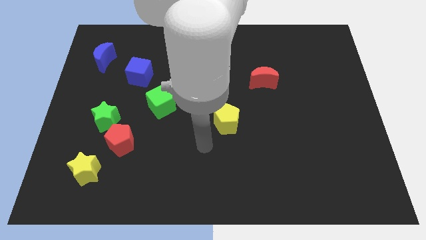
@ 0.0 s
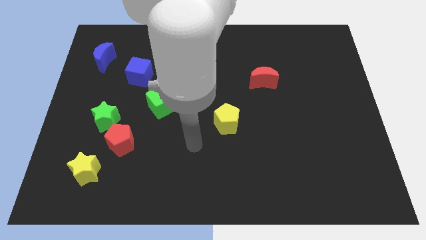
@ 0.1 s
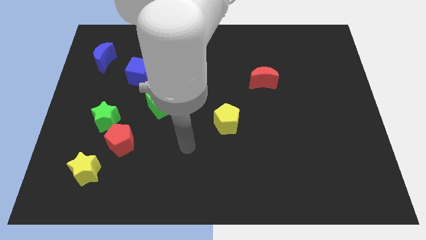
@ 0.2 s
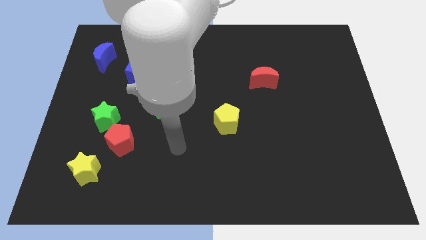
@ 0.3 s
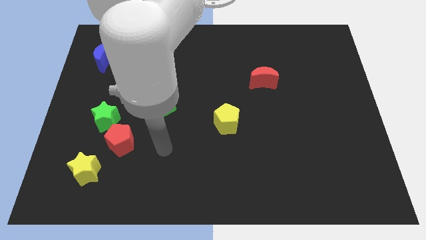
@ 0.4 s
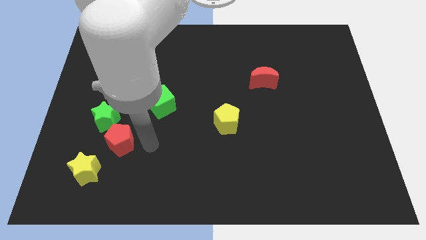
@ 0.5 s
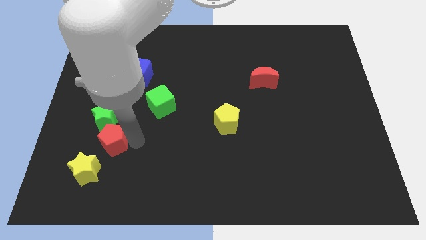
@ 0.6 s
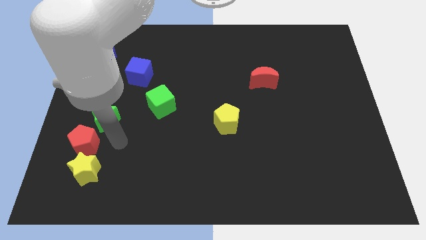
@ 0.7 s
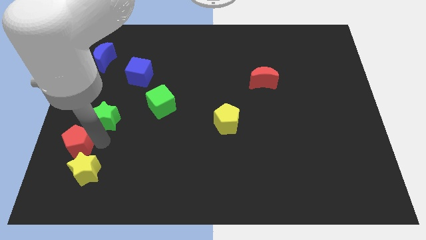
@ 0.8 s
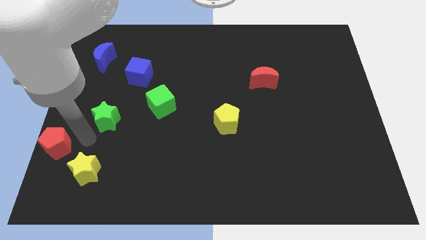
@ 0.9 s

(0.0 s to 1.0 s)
separate the green star from the red pentagon

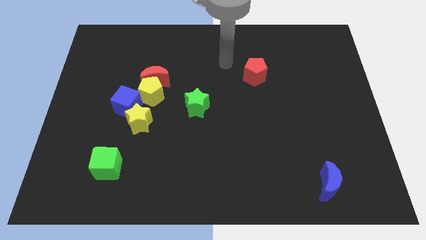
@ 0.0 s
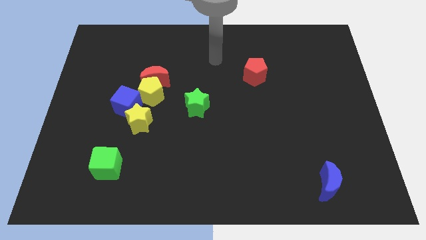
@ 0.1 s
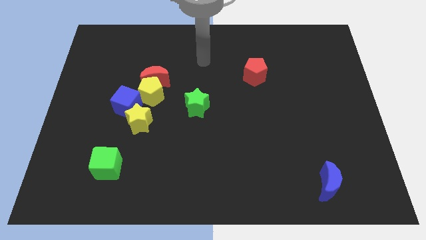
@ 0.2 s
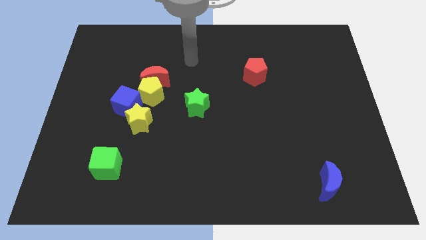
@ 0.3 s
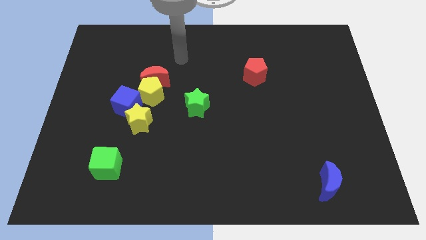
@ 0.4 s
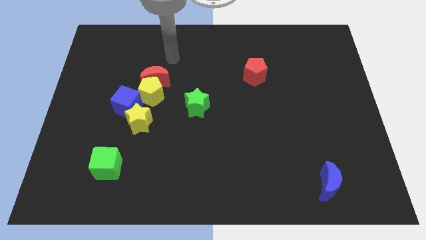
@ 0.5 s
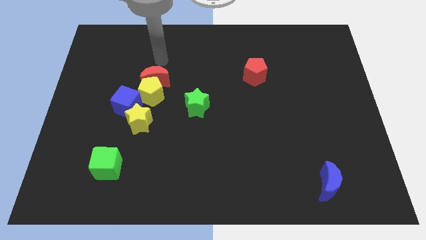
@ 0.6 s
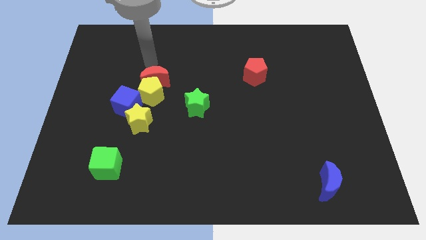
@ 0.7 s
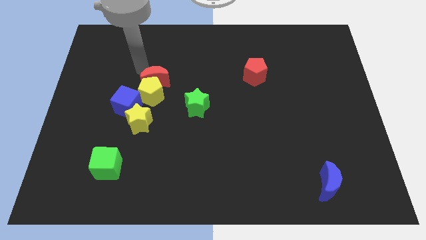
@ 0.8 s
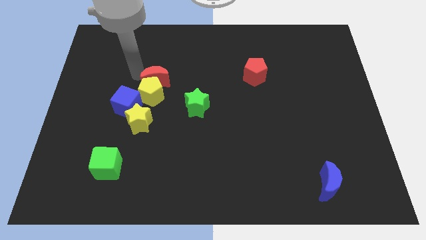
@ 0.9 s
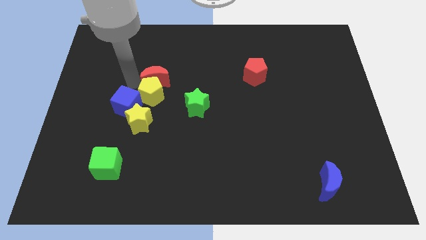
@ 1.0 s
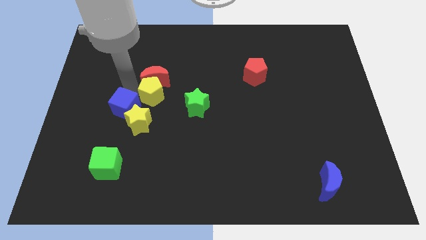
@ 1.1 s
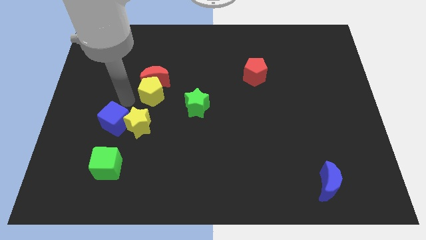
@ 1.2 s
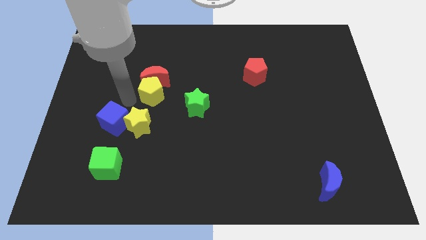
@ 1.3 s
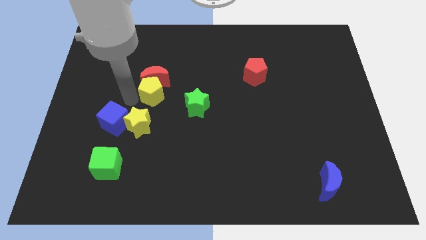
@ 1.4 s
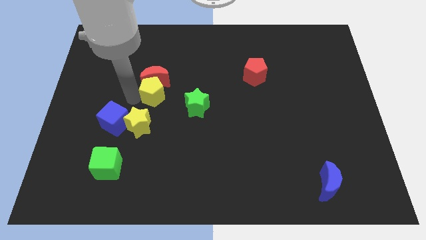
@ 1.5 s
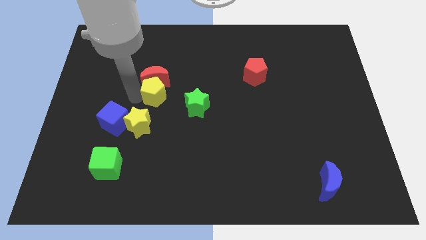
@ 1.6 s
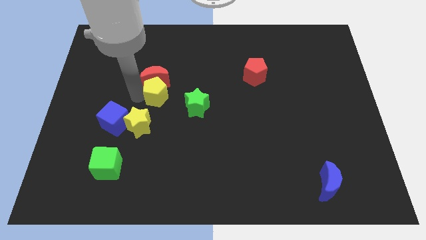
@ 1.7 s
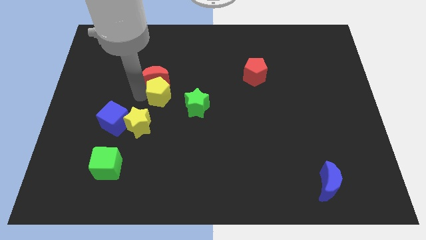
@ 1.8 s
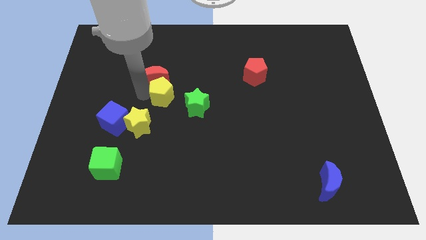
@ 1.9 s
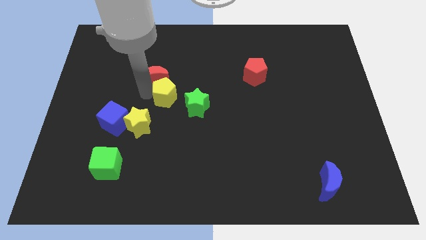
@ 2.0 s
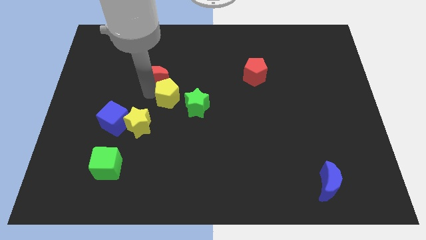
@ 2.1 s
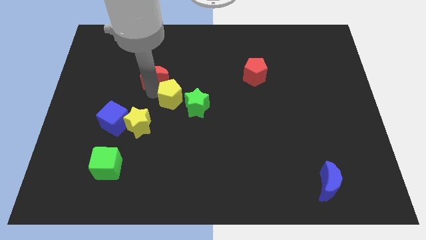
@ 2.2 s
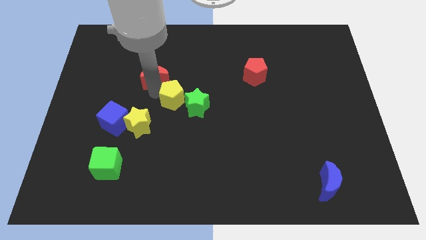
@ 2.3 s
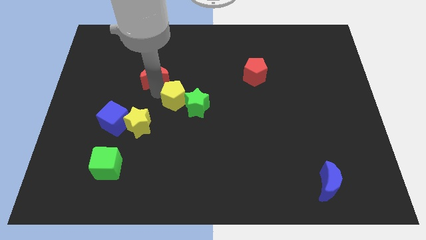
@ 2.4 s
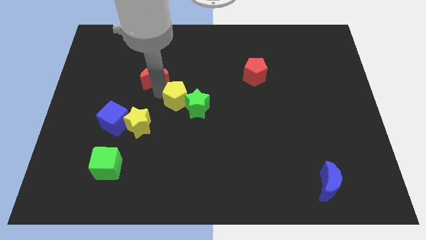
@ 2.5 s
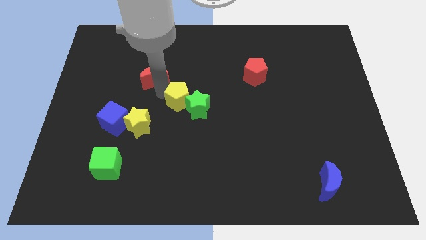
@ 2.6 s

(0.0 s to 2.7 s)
move the yellow pentagon away from the red moon, blue cube, and yellow star

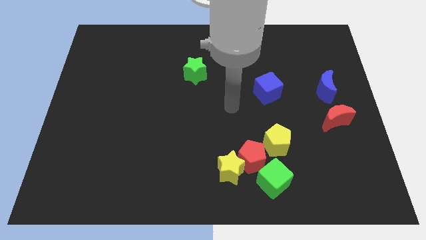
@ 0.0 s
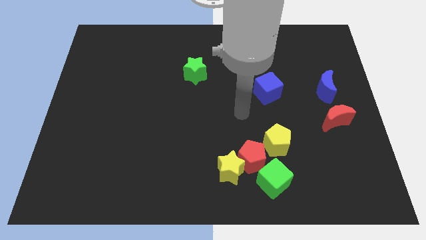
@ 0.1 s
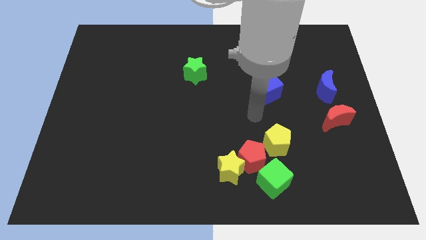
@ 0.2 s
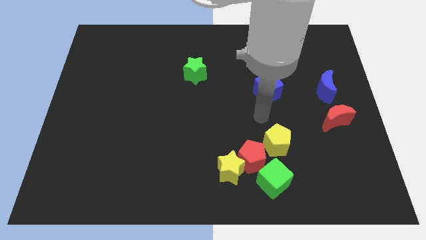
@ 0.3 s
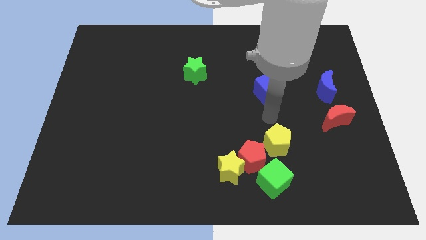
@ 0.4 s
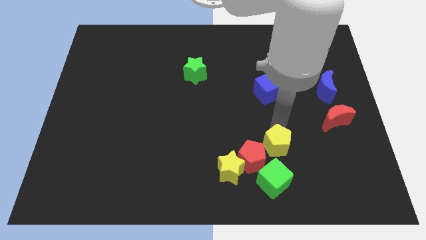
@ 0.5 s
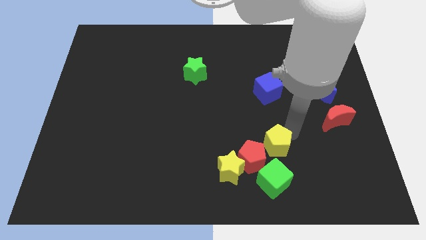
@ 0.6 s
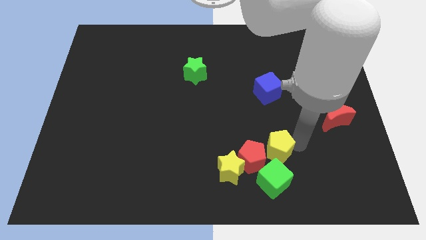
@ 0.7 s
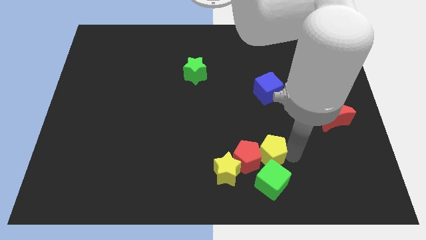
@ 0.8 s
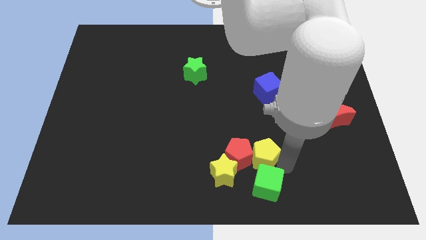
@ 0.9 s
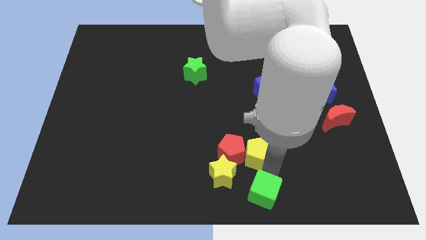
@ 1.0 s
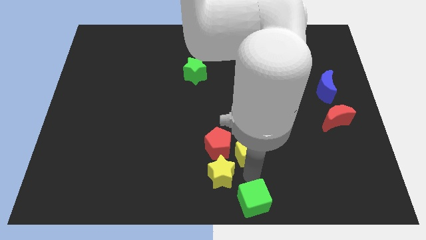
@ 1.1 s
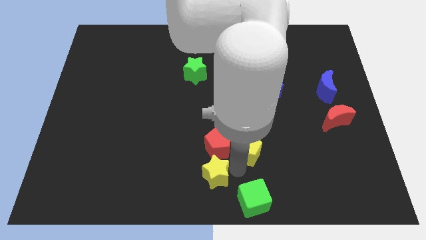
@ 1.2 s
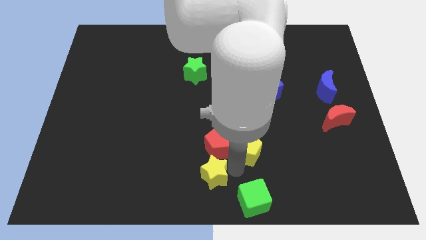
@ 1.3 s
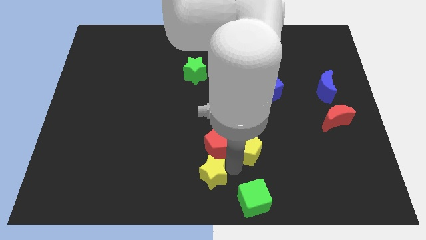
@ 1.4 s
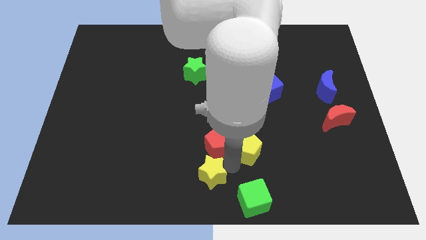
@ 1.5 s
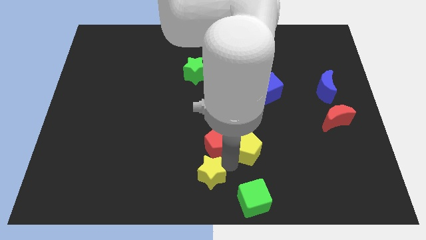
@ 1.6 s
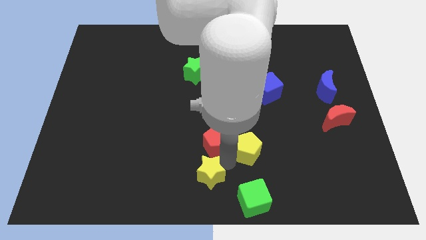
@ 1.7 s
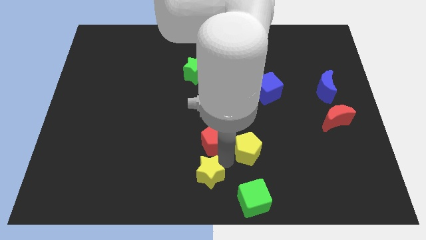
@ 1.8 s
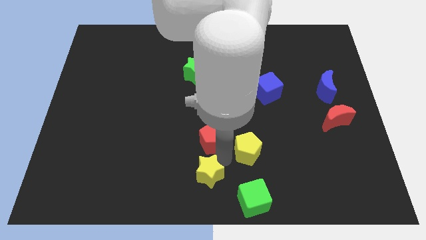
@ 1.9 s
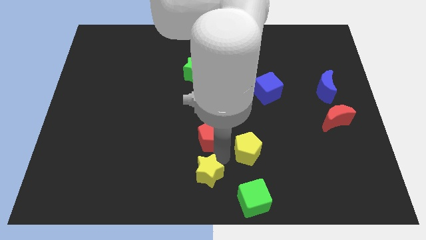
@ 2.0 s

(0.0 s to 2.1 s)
pull the red pentagon apart from the yellow star, green cube, and yellow pentagon

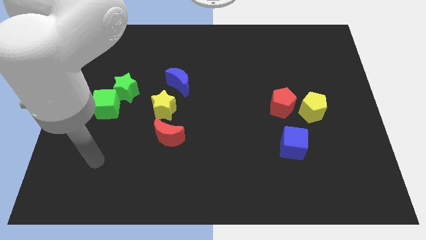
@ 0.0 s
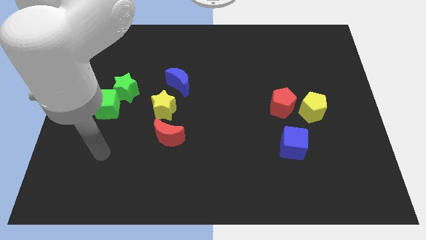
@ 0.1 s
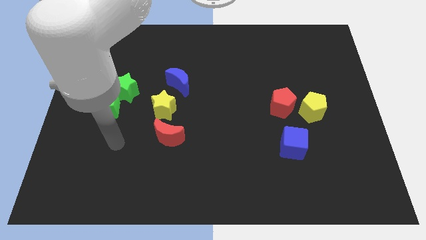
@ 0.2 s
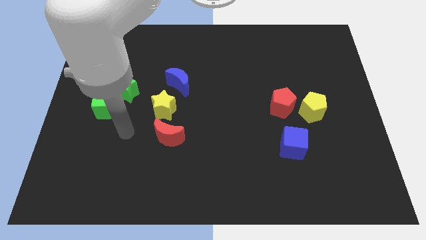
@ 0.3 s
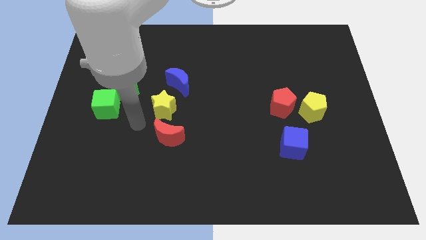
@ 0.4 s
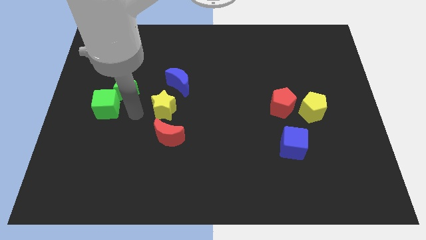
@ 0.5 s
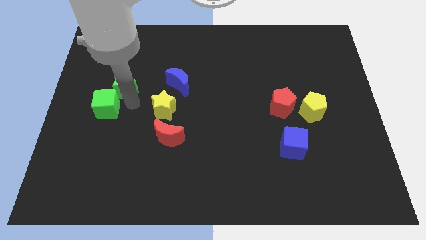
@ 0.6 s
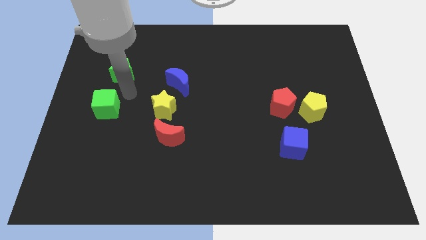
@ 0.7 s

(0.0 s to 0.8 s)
pull the green cube apart from the green star

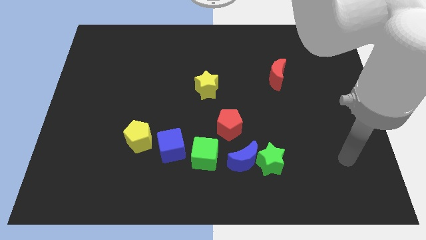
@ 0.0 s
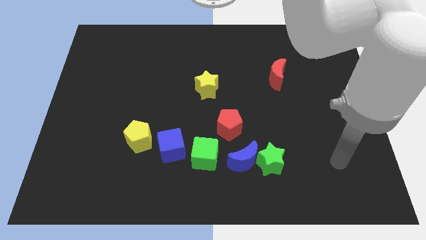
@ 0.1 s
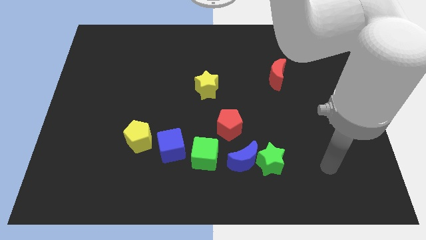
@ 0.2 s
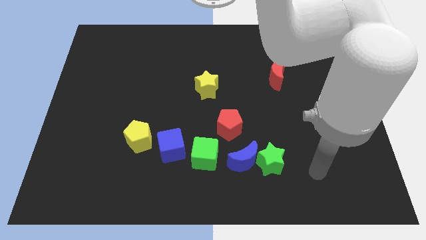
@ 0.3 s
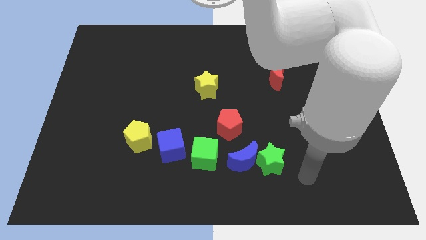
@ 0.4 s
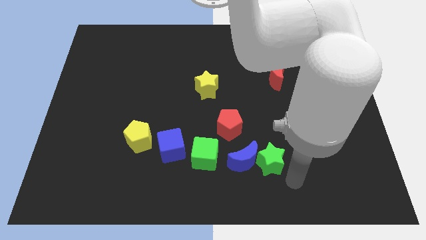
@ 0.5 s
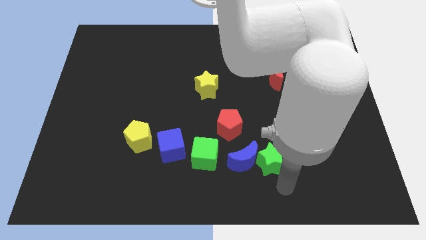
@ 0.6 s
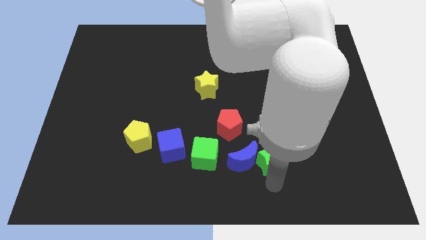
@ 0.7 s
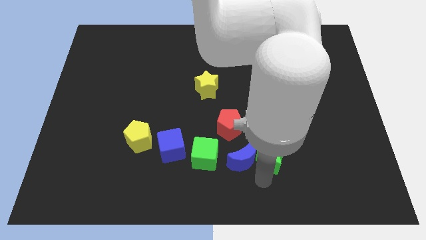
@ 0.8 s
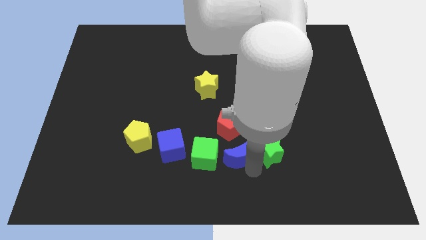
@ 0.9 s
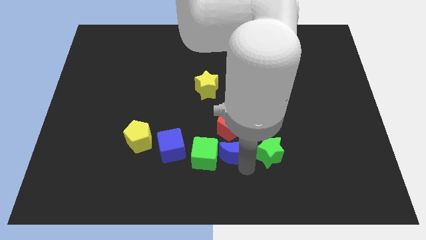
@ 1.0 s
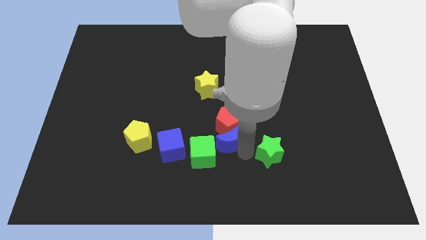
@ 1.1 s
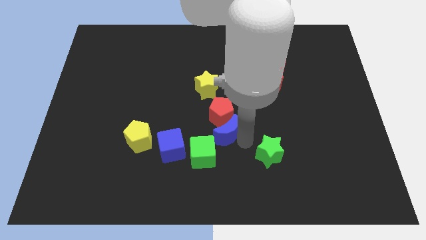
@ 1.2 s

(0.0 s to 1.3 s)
move the green star away from the blue moon

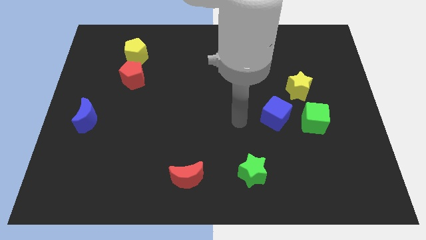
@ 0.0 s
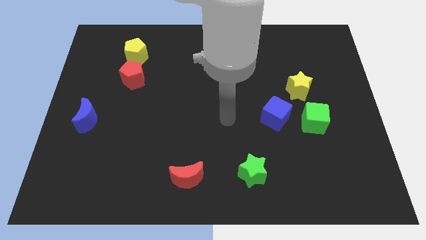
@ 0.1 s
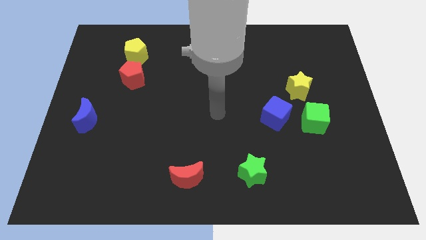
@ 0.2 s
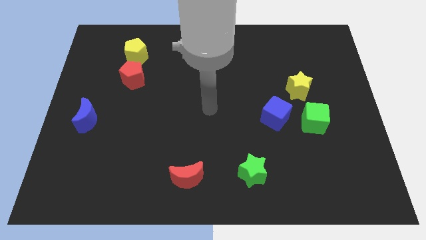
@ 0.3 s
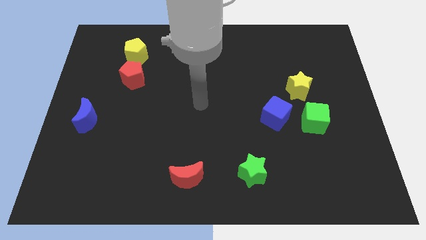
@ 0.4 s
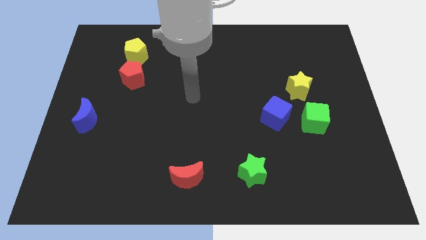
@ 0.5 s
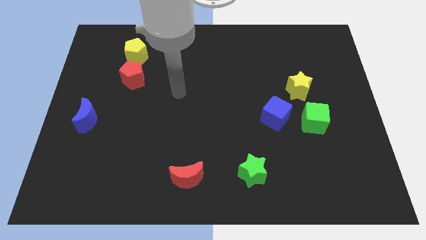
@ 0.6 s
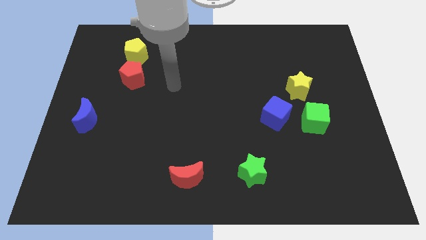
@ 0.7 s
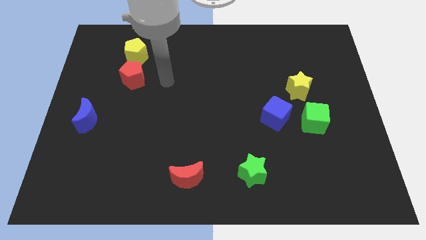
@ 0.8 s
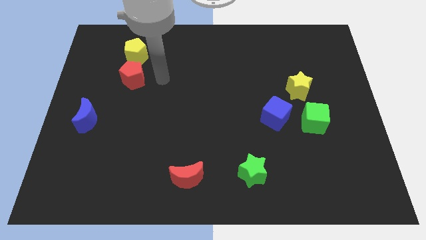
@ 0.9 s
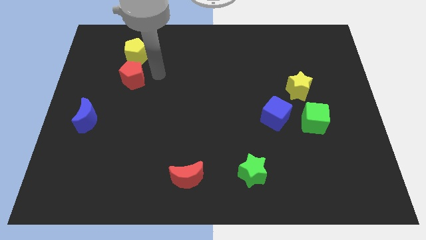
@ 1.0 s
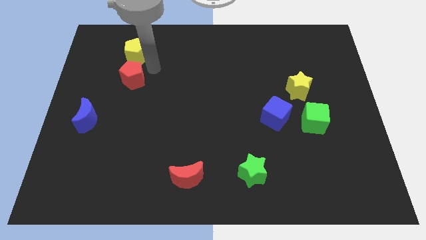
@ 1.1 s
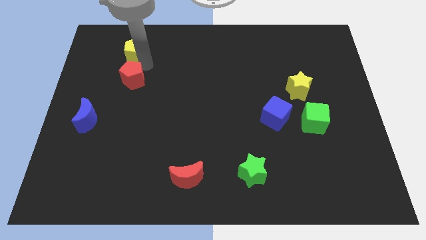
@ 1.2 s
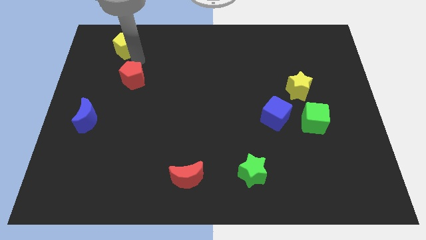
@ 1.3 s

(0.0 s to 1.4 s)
separate the red pentagon from the yellow pentagon
